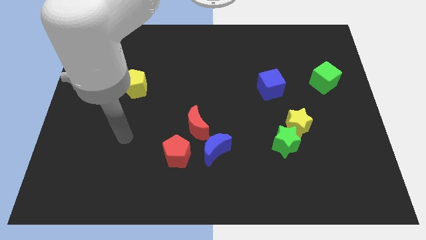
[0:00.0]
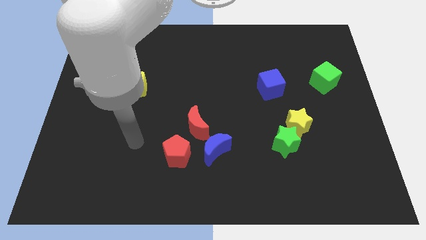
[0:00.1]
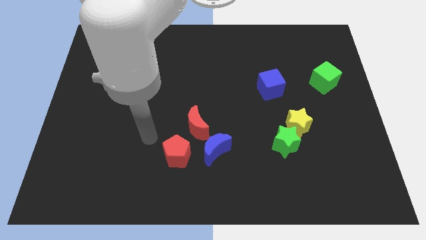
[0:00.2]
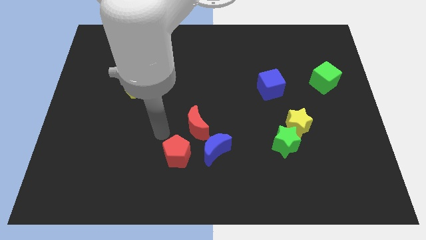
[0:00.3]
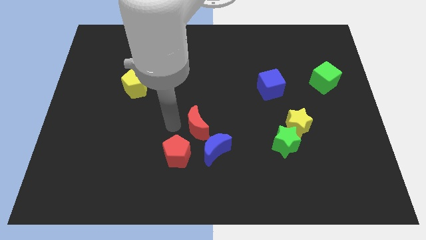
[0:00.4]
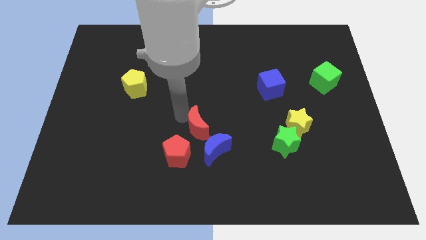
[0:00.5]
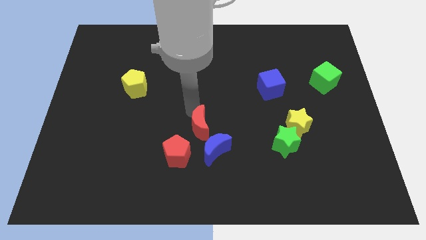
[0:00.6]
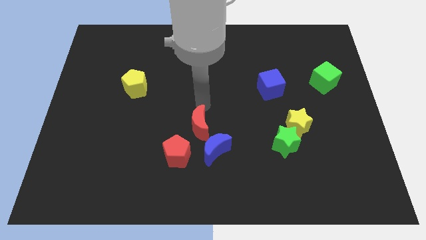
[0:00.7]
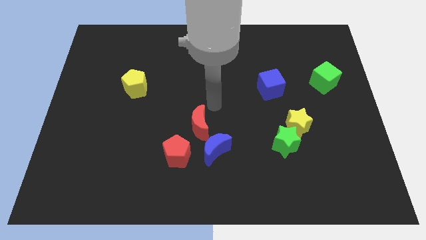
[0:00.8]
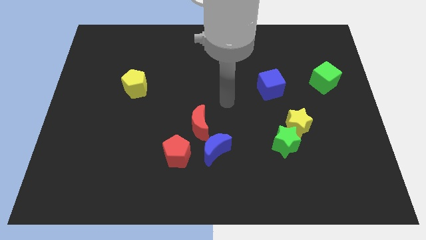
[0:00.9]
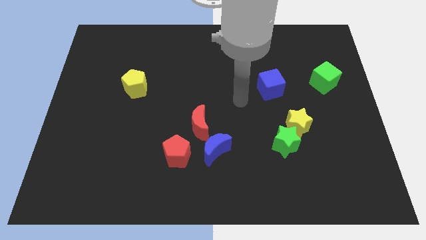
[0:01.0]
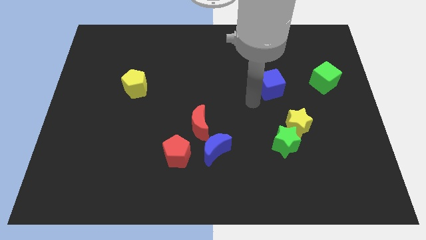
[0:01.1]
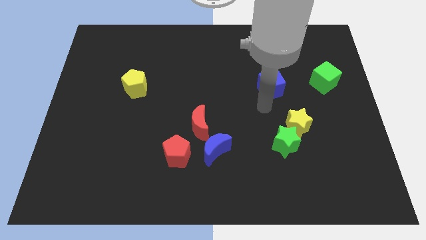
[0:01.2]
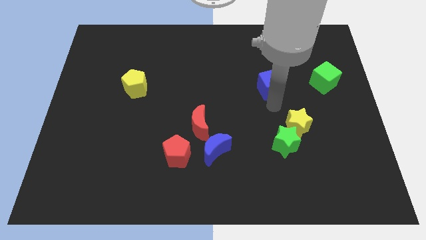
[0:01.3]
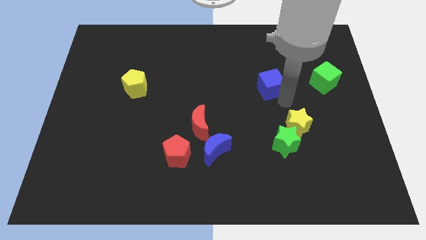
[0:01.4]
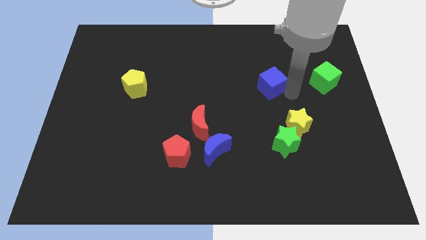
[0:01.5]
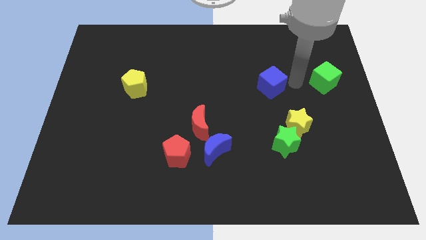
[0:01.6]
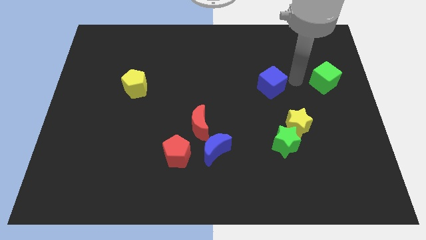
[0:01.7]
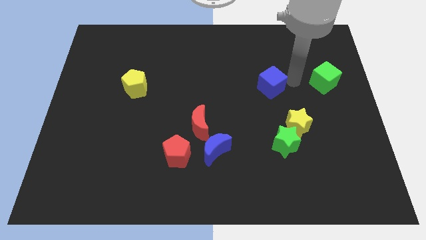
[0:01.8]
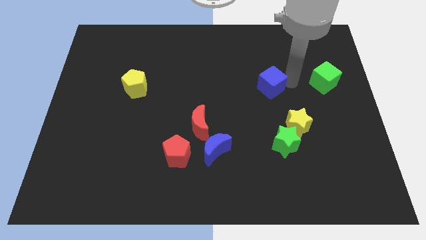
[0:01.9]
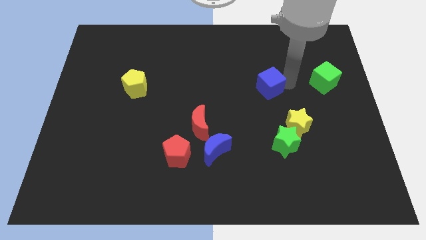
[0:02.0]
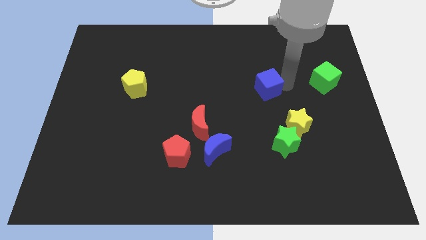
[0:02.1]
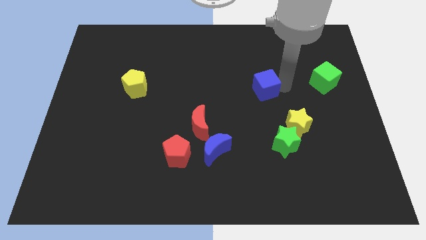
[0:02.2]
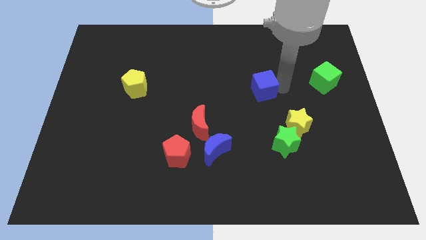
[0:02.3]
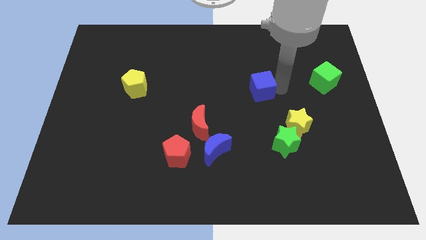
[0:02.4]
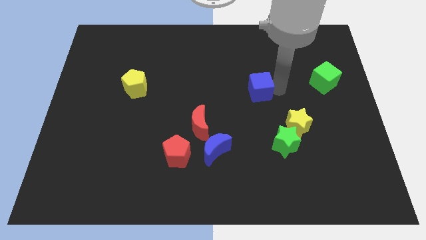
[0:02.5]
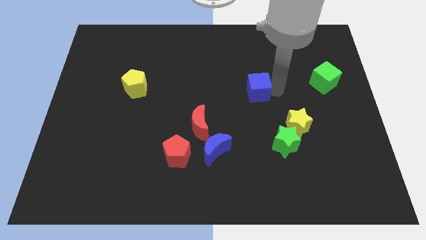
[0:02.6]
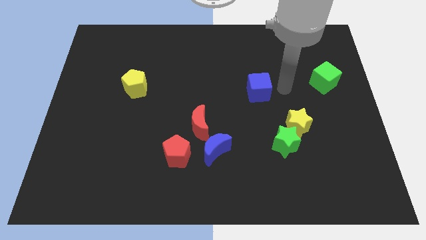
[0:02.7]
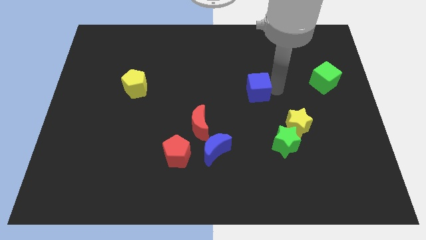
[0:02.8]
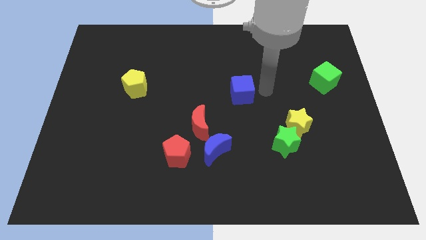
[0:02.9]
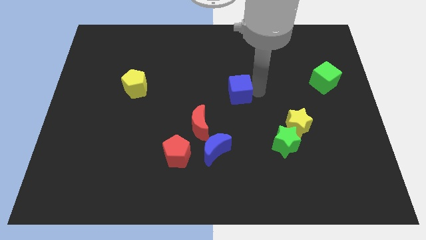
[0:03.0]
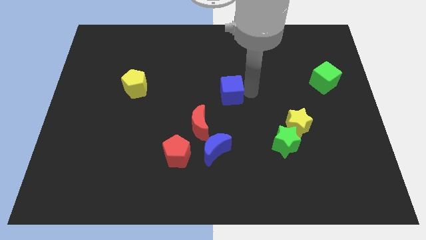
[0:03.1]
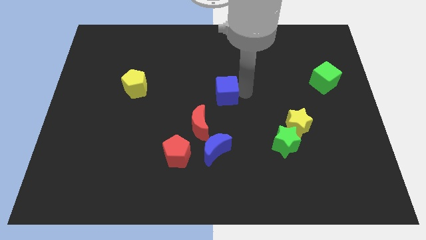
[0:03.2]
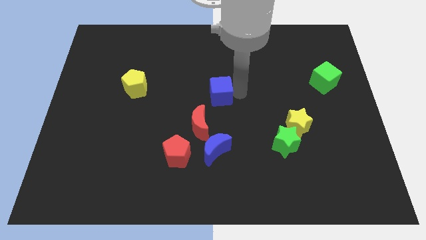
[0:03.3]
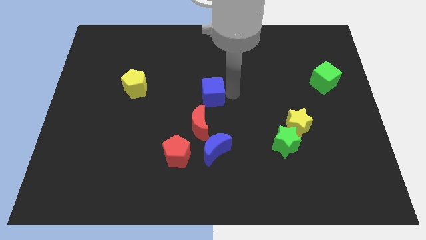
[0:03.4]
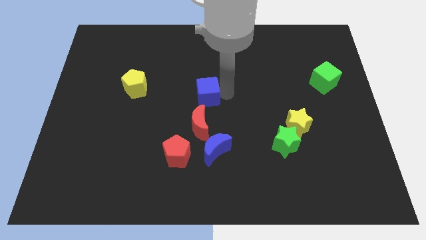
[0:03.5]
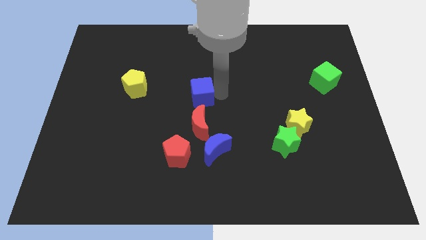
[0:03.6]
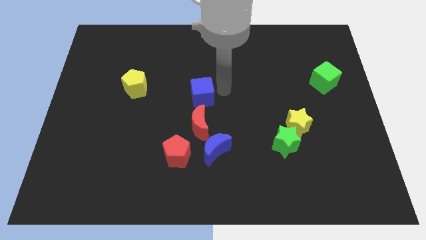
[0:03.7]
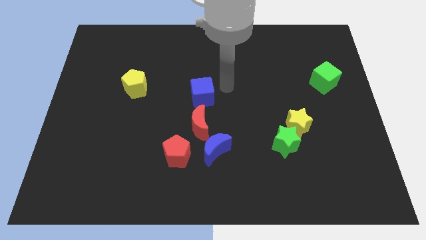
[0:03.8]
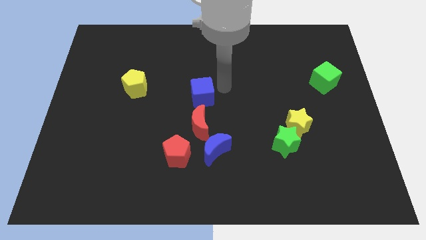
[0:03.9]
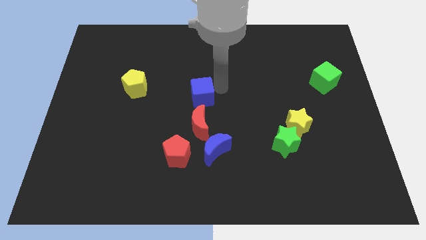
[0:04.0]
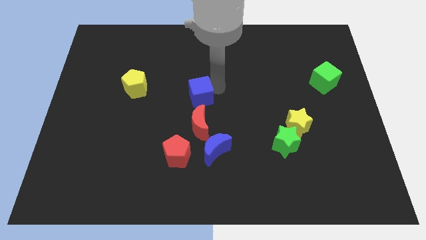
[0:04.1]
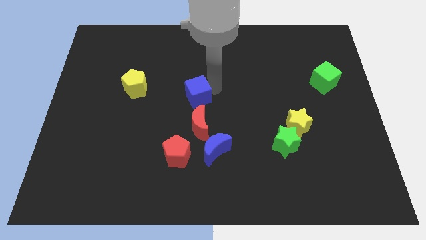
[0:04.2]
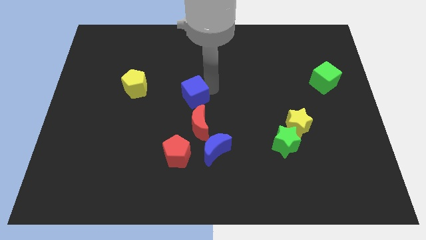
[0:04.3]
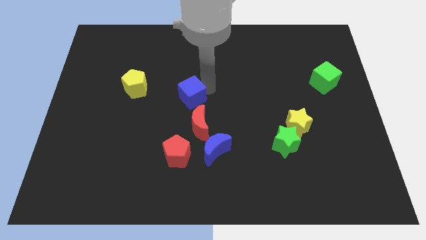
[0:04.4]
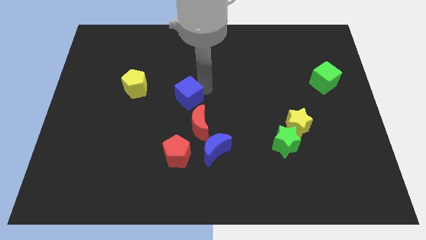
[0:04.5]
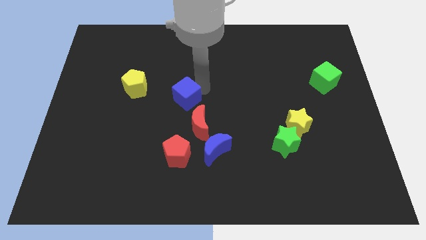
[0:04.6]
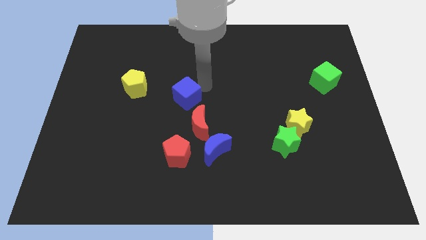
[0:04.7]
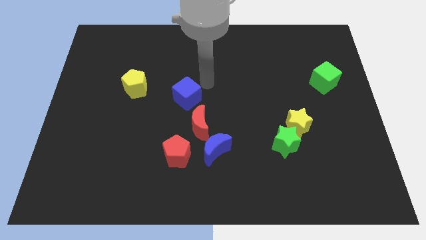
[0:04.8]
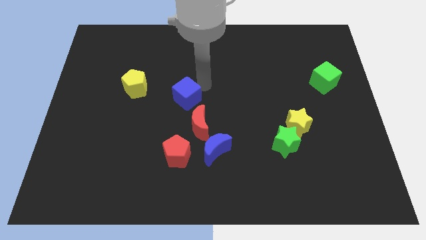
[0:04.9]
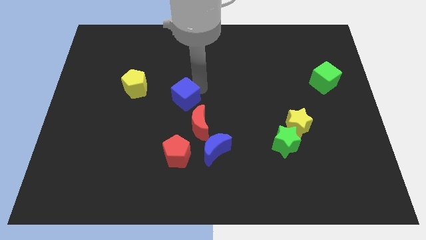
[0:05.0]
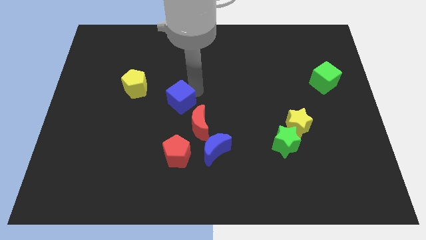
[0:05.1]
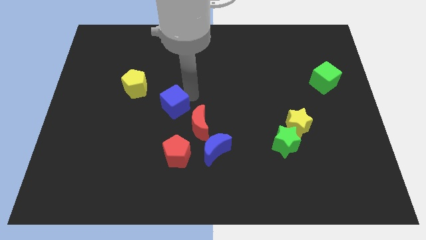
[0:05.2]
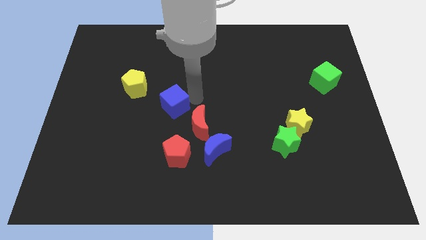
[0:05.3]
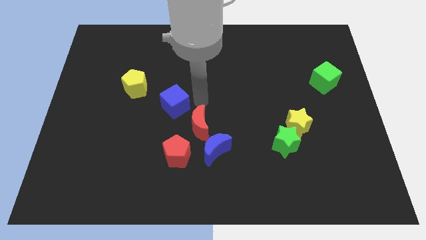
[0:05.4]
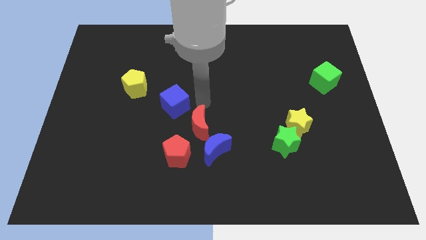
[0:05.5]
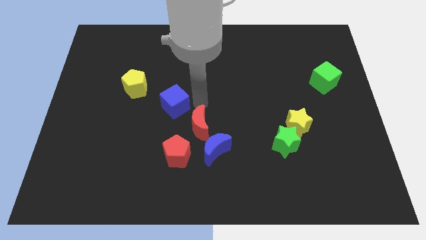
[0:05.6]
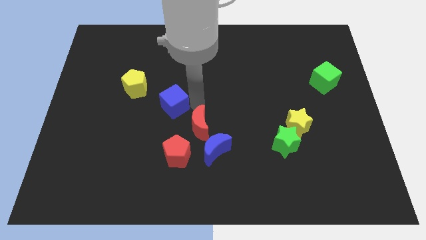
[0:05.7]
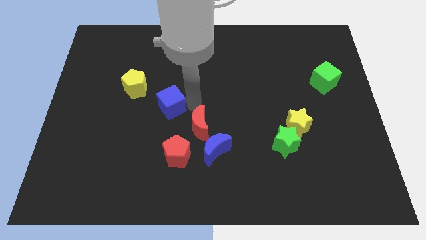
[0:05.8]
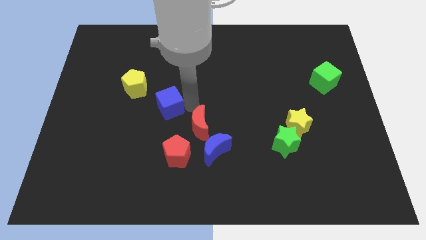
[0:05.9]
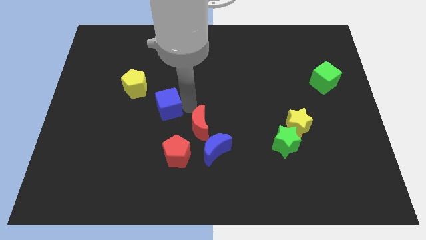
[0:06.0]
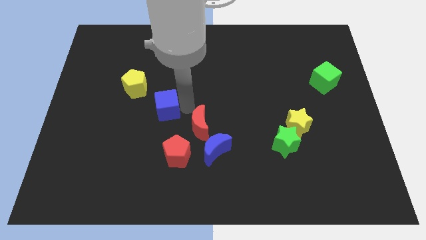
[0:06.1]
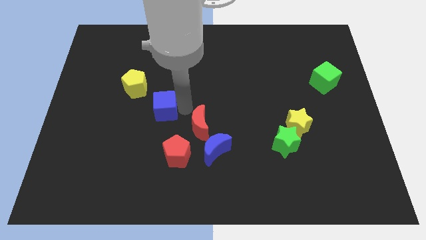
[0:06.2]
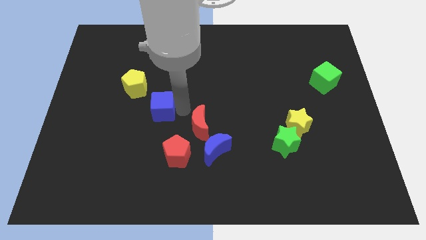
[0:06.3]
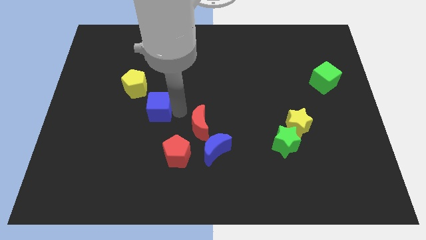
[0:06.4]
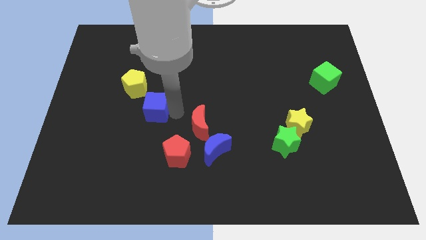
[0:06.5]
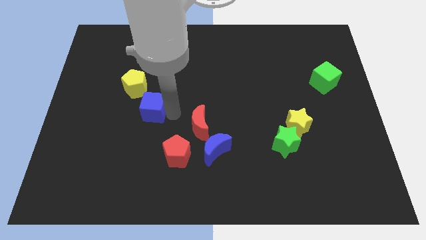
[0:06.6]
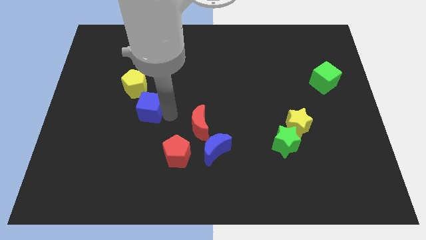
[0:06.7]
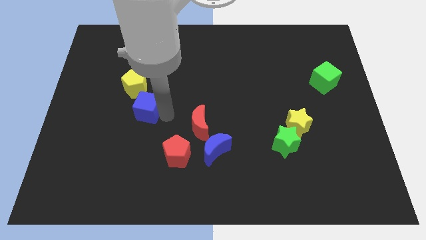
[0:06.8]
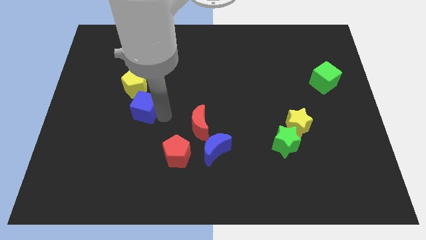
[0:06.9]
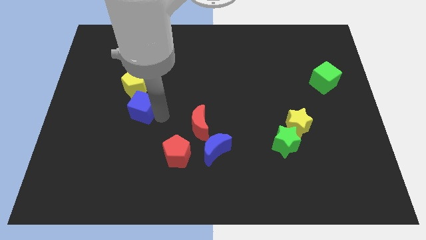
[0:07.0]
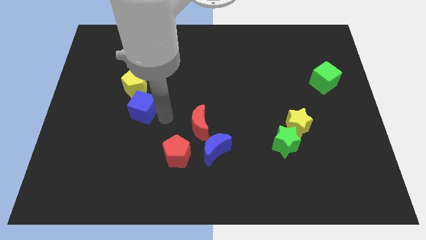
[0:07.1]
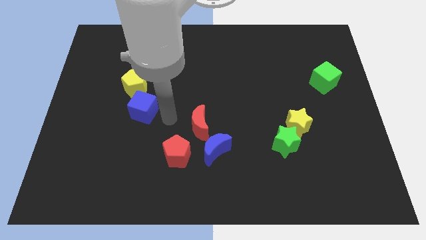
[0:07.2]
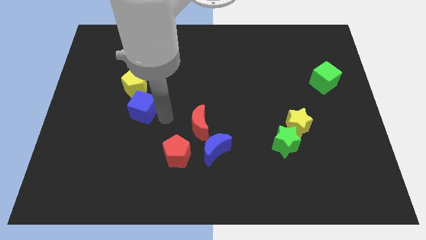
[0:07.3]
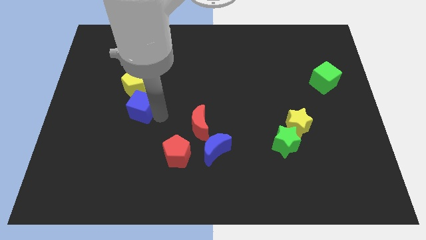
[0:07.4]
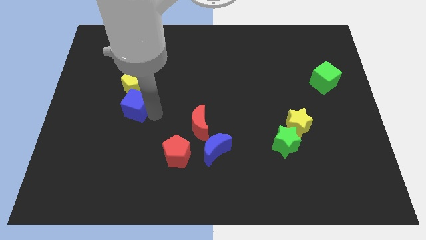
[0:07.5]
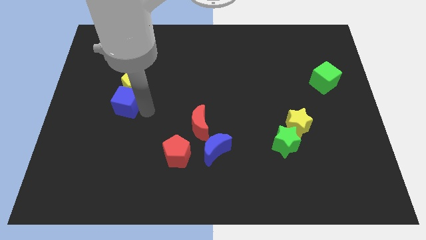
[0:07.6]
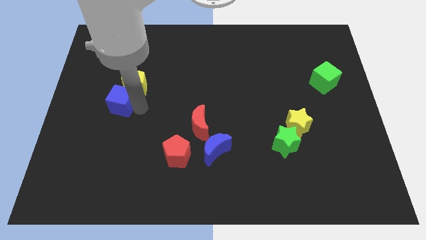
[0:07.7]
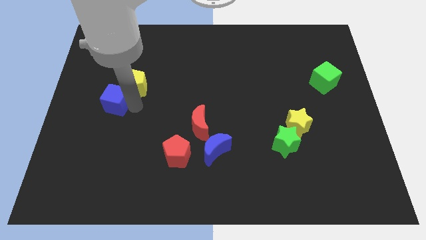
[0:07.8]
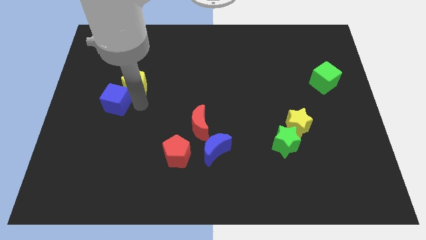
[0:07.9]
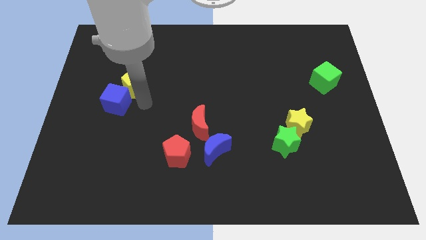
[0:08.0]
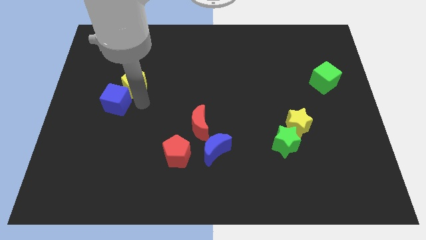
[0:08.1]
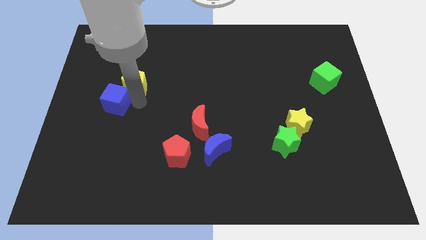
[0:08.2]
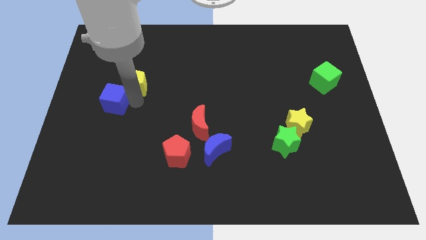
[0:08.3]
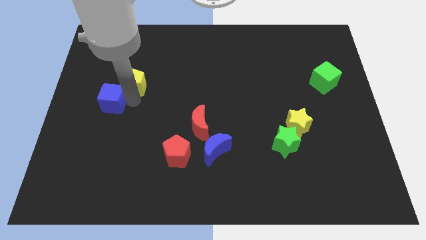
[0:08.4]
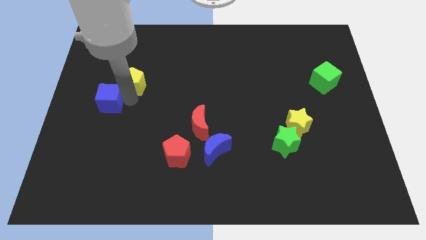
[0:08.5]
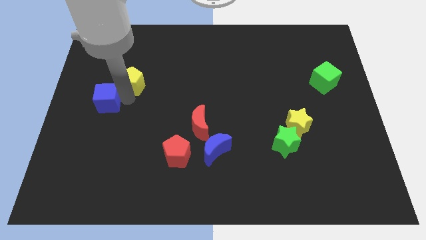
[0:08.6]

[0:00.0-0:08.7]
push the blue cube to the left side
